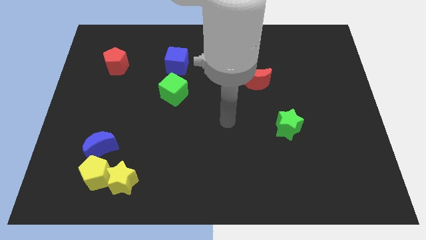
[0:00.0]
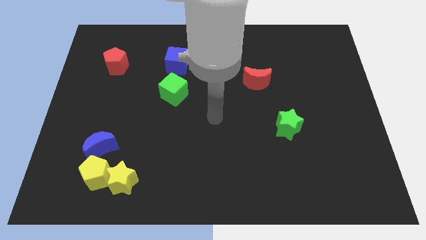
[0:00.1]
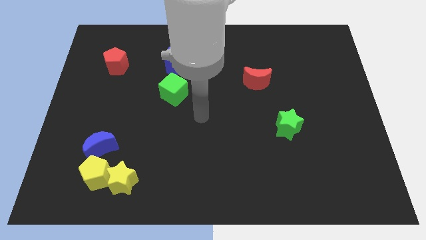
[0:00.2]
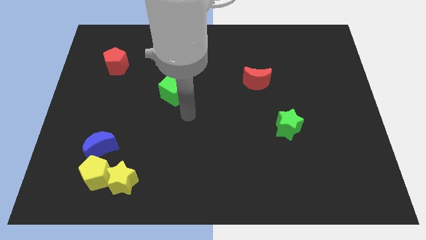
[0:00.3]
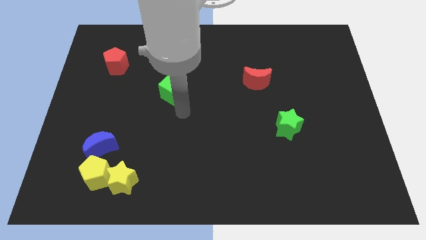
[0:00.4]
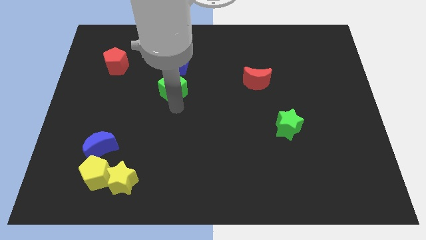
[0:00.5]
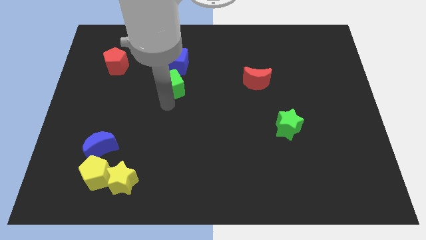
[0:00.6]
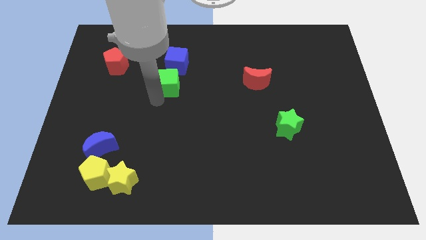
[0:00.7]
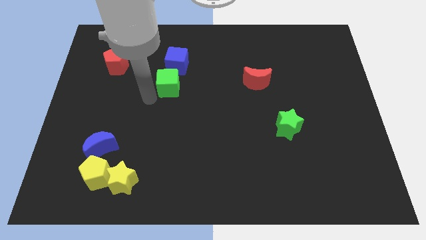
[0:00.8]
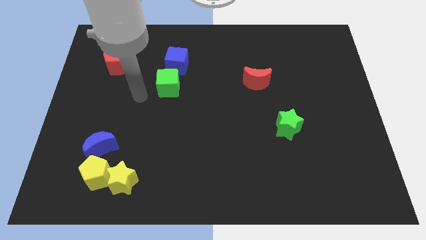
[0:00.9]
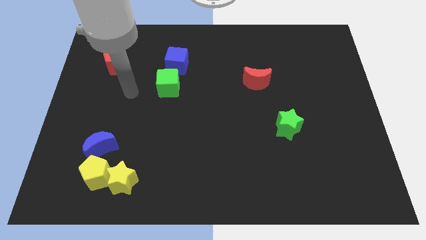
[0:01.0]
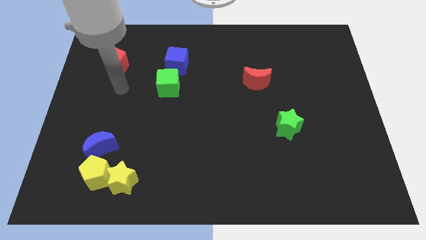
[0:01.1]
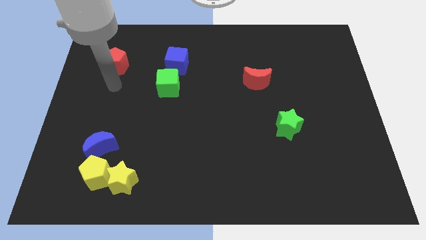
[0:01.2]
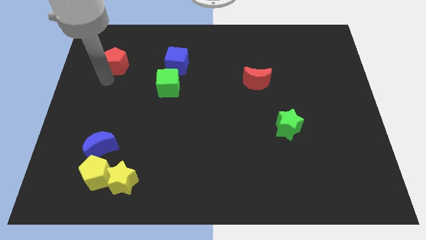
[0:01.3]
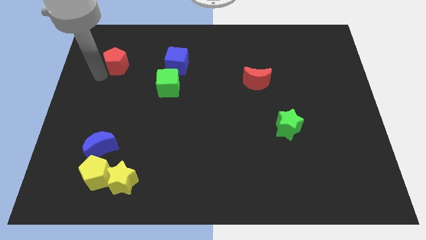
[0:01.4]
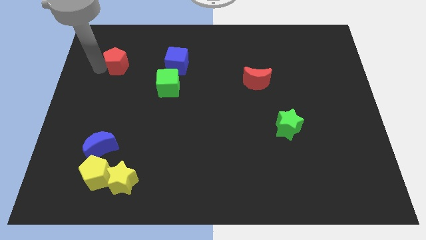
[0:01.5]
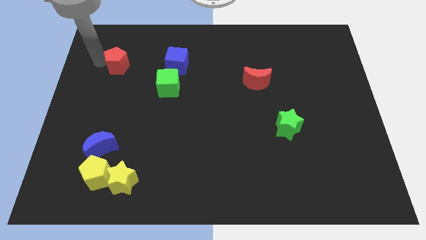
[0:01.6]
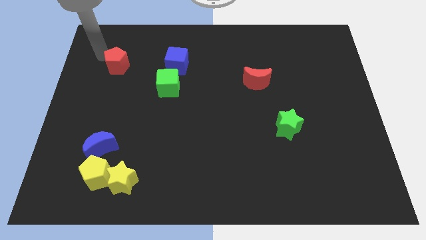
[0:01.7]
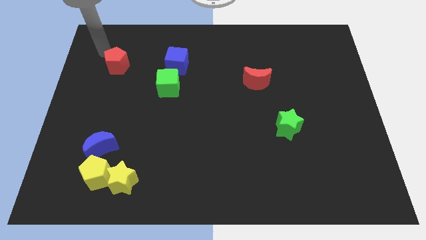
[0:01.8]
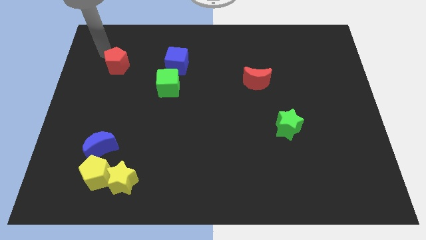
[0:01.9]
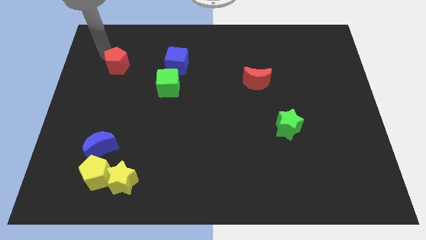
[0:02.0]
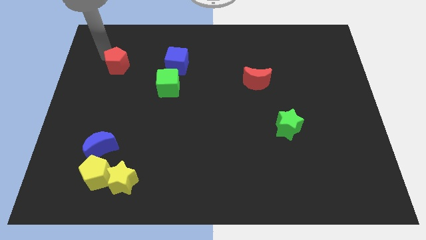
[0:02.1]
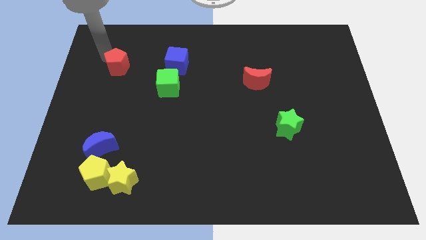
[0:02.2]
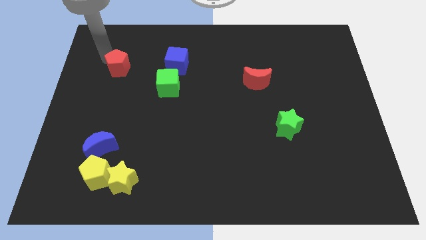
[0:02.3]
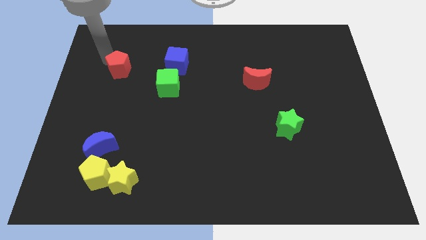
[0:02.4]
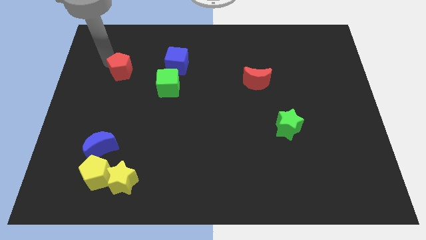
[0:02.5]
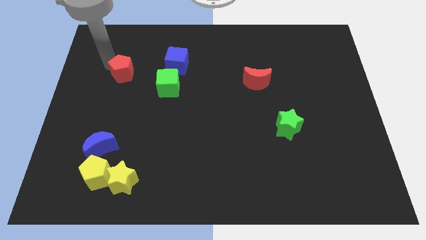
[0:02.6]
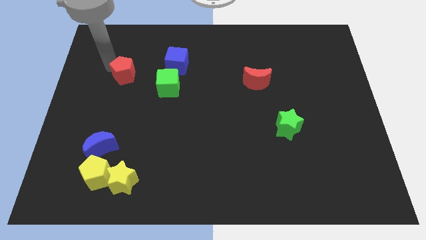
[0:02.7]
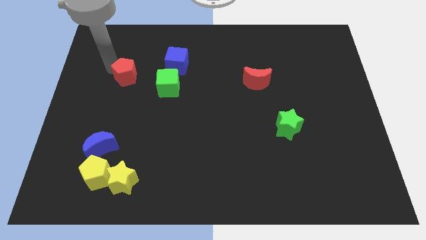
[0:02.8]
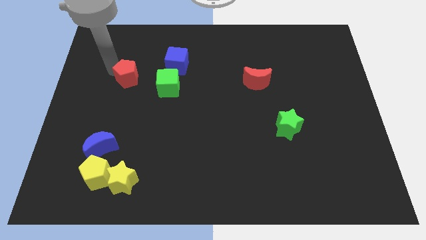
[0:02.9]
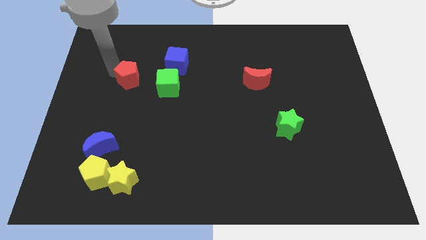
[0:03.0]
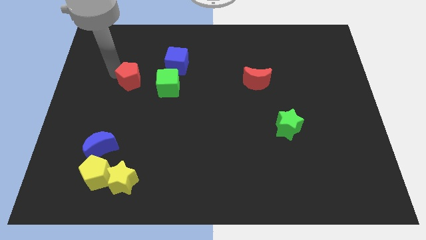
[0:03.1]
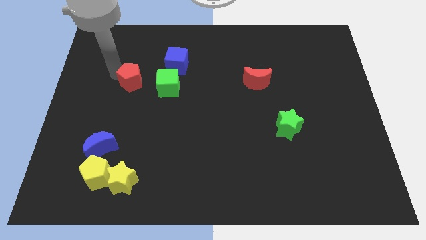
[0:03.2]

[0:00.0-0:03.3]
slightly push the red pentagon downwards and right

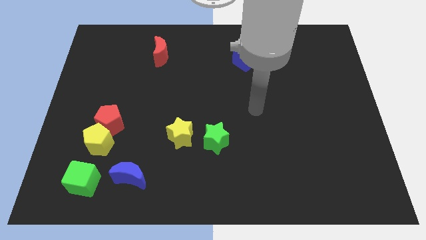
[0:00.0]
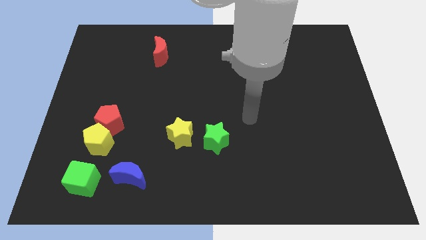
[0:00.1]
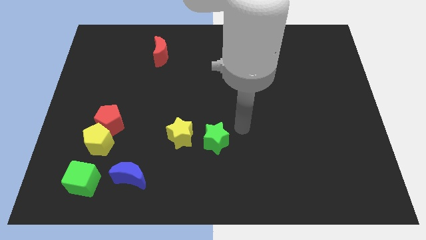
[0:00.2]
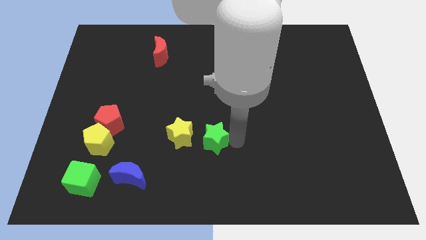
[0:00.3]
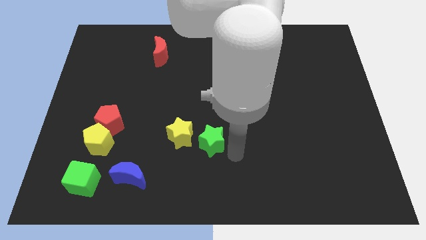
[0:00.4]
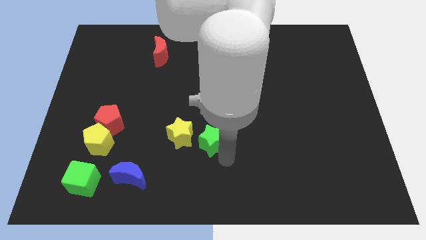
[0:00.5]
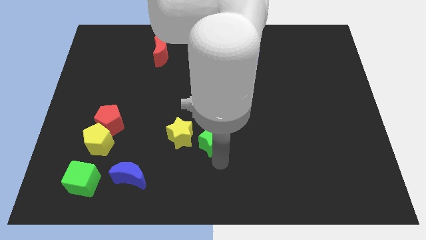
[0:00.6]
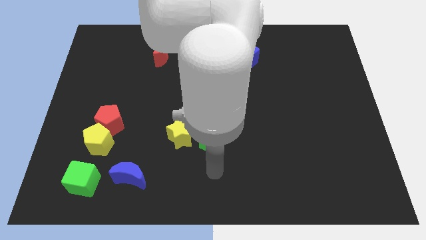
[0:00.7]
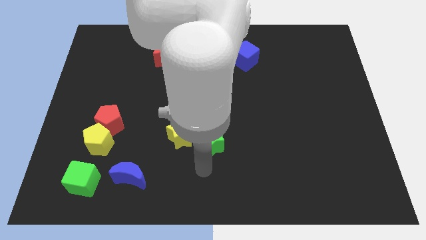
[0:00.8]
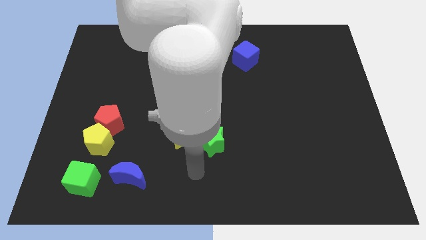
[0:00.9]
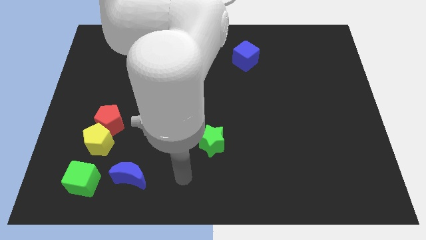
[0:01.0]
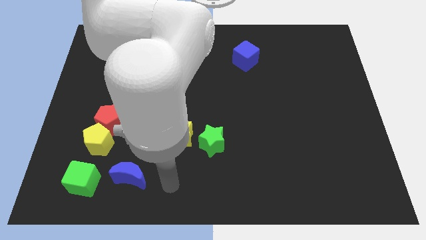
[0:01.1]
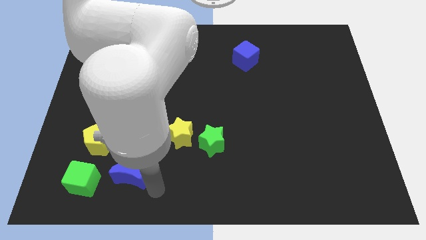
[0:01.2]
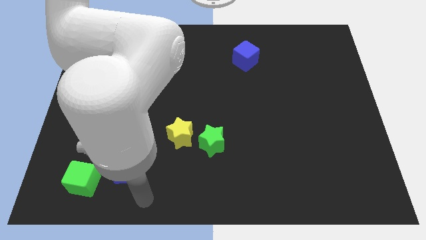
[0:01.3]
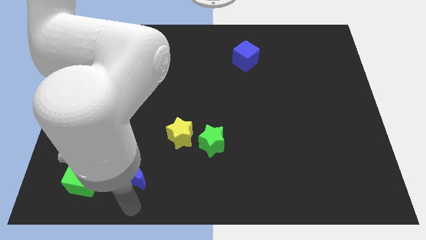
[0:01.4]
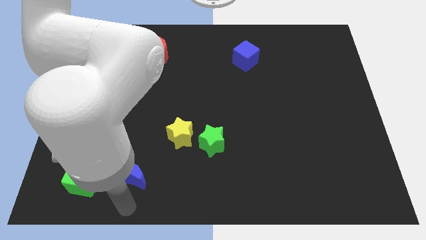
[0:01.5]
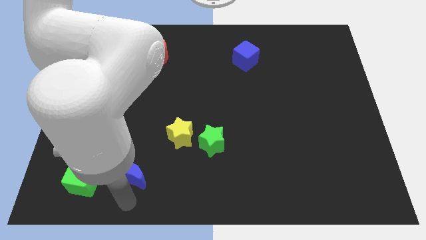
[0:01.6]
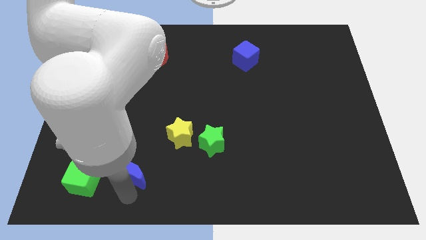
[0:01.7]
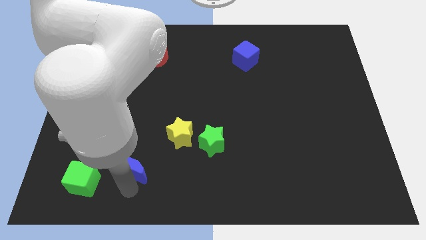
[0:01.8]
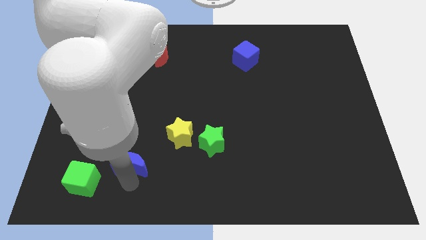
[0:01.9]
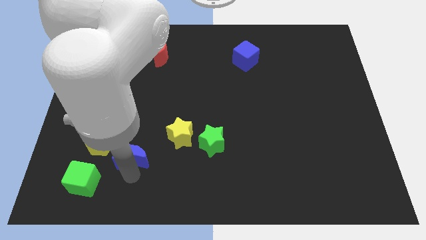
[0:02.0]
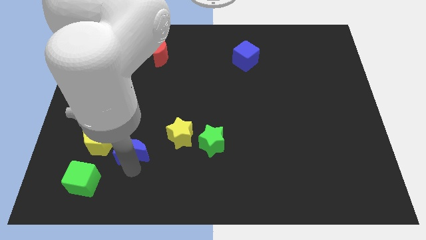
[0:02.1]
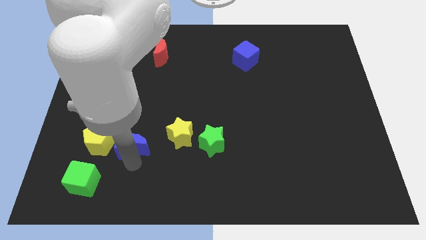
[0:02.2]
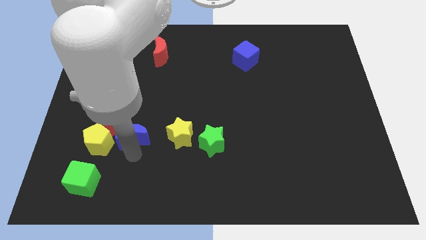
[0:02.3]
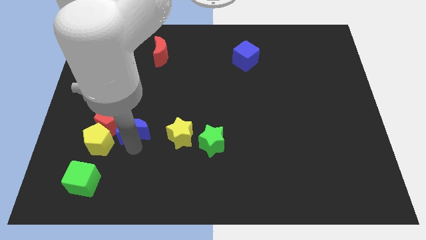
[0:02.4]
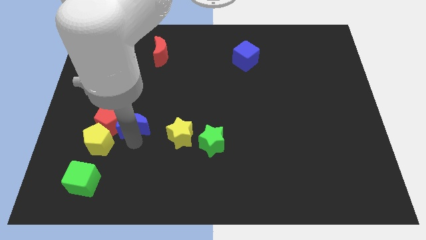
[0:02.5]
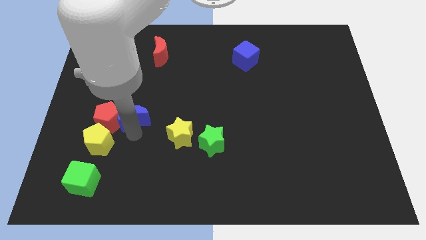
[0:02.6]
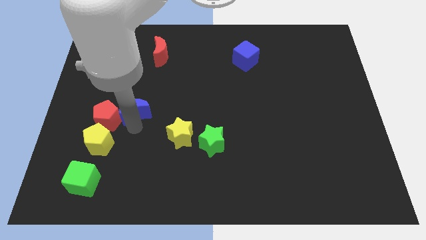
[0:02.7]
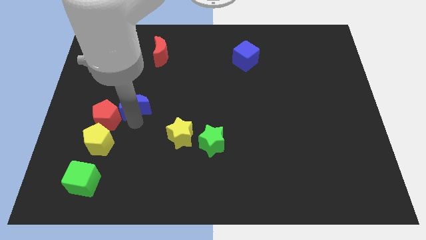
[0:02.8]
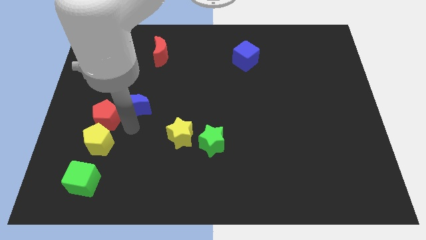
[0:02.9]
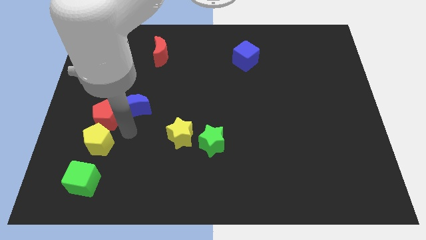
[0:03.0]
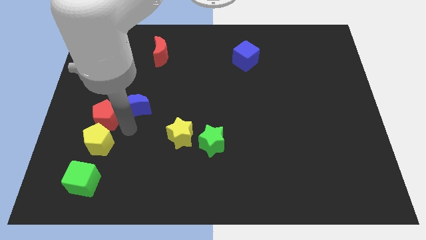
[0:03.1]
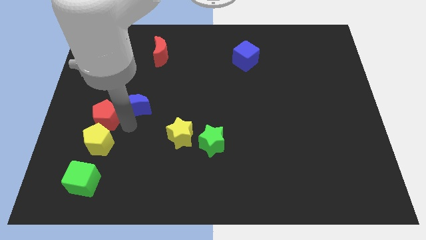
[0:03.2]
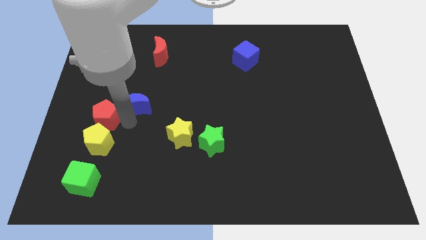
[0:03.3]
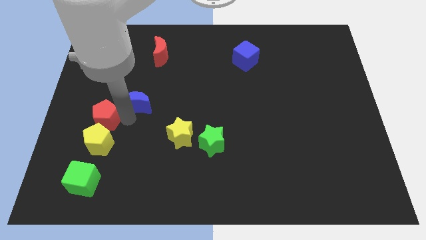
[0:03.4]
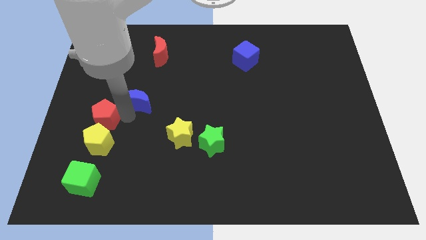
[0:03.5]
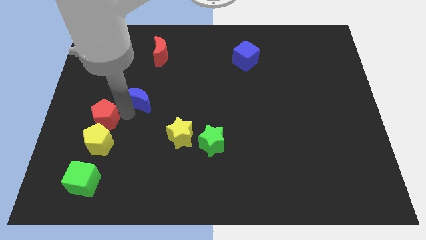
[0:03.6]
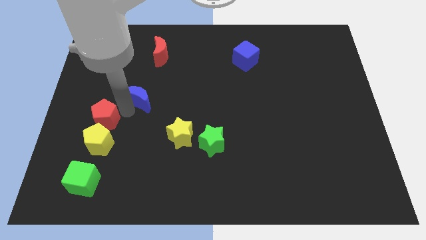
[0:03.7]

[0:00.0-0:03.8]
push the blue moon up

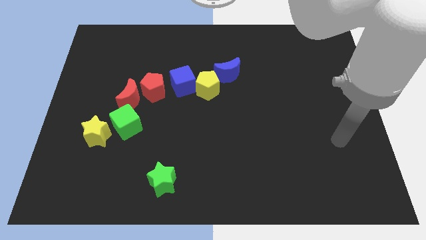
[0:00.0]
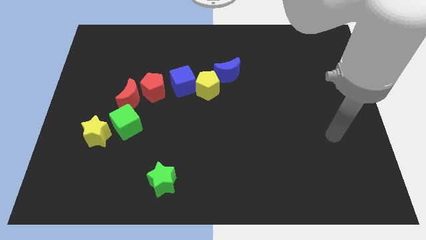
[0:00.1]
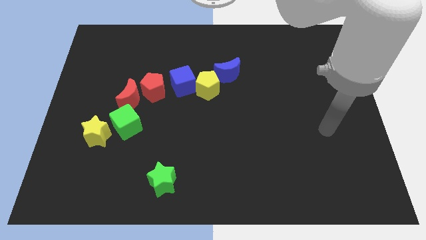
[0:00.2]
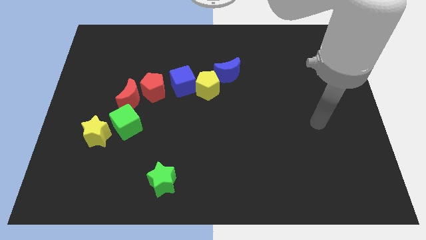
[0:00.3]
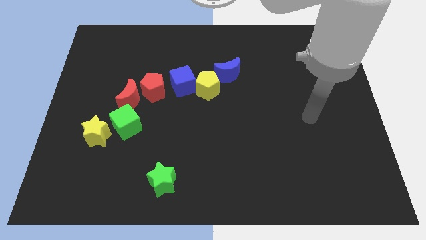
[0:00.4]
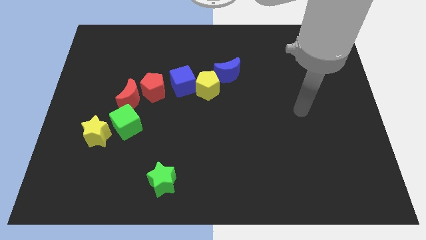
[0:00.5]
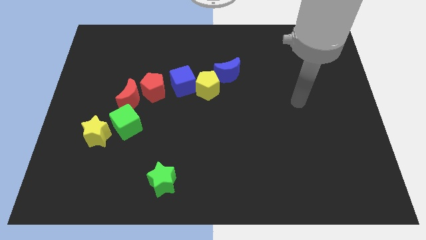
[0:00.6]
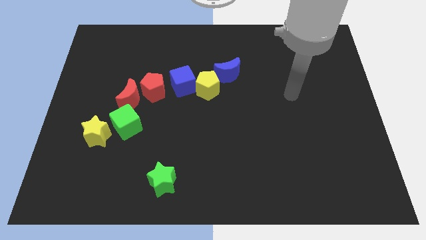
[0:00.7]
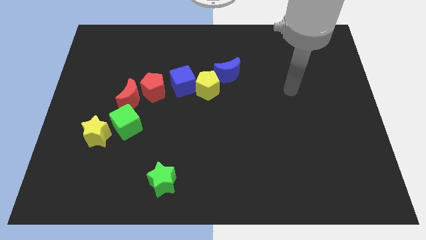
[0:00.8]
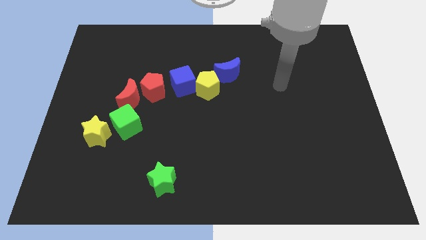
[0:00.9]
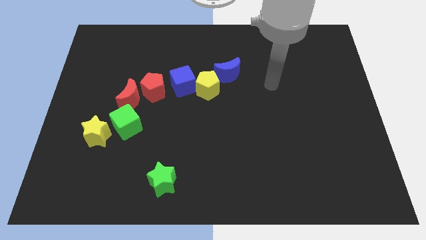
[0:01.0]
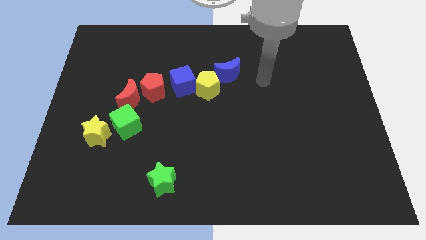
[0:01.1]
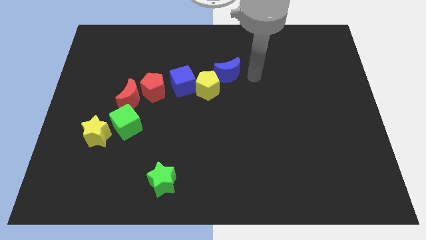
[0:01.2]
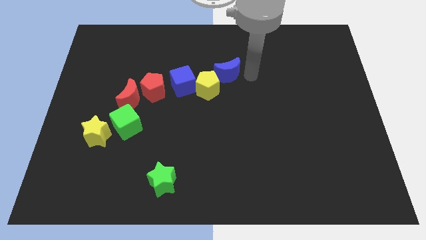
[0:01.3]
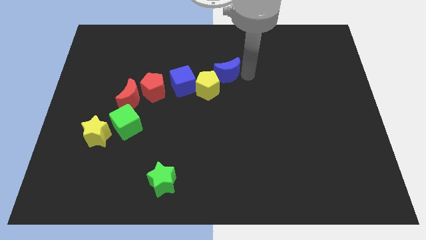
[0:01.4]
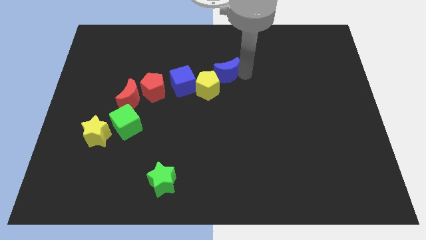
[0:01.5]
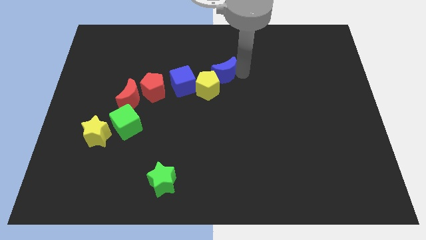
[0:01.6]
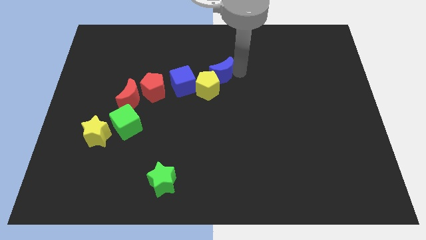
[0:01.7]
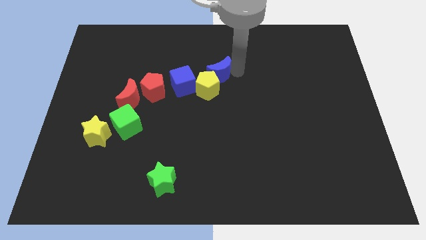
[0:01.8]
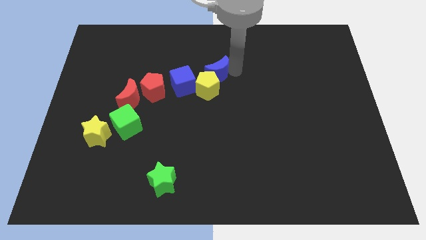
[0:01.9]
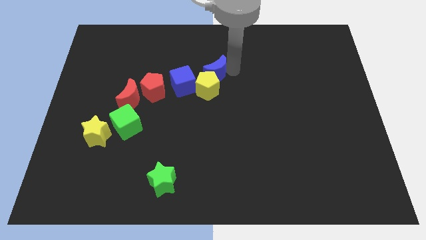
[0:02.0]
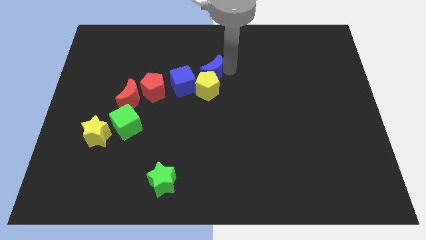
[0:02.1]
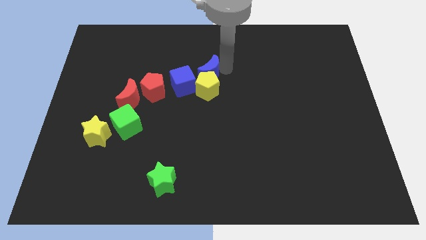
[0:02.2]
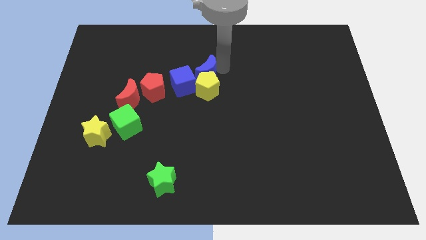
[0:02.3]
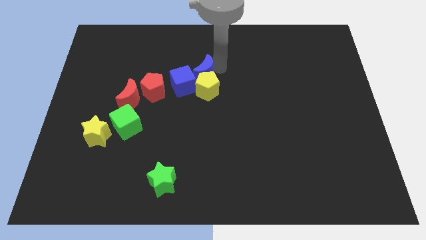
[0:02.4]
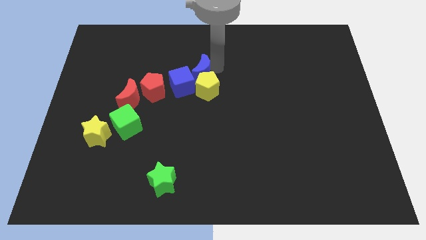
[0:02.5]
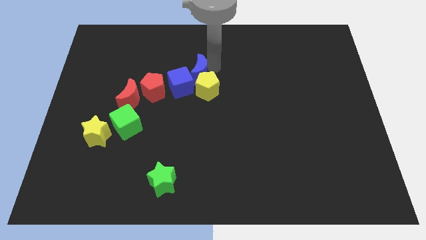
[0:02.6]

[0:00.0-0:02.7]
slightly push the blue moon left
